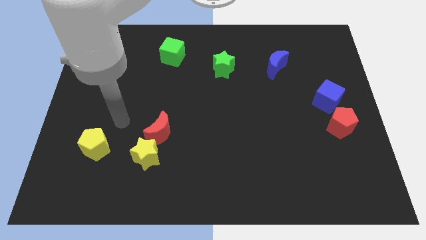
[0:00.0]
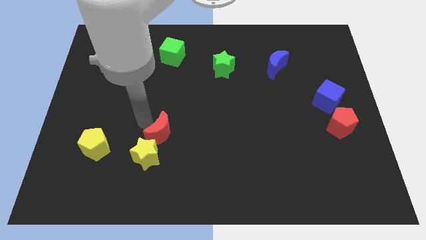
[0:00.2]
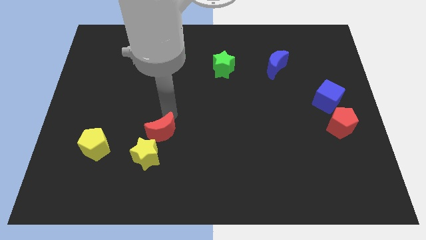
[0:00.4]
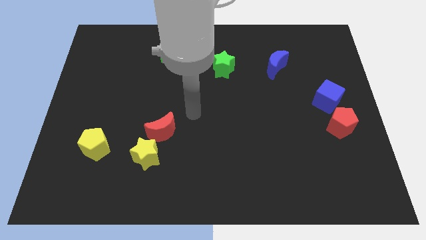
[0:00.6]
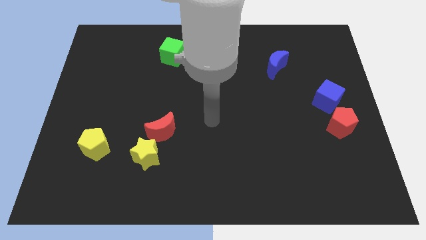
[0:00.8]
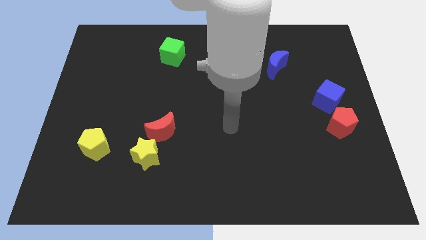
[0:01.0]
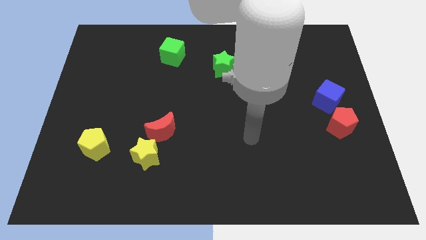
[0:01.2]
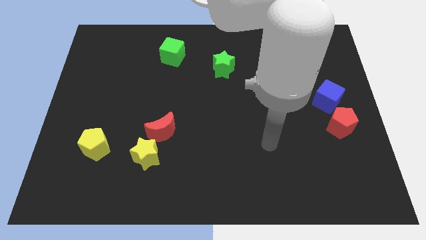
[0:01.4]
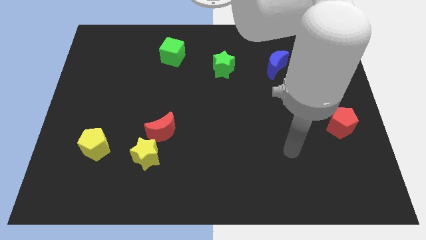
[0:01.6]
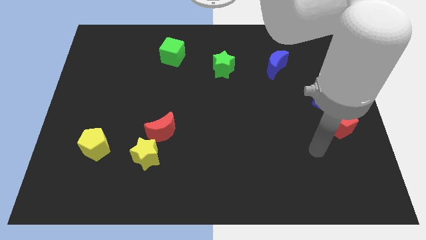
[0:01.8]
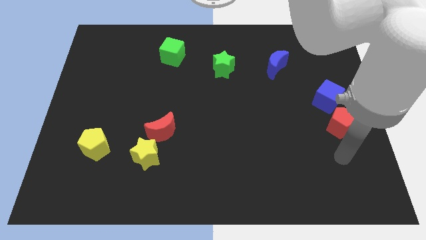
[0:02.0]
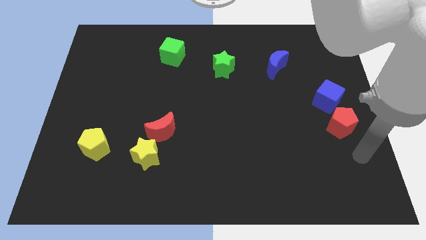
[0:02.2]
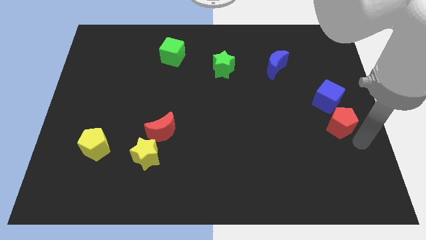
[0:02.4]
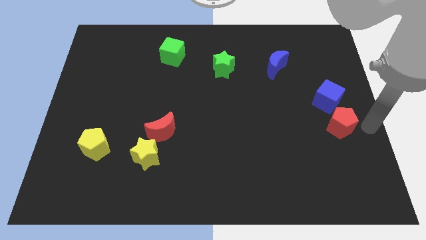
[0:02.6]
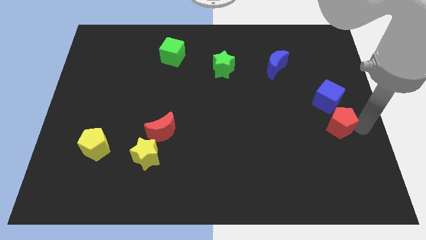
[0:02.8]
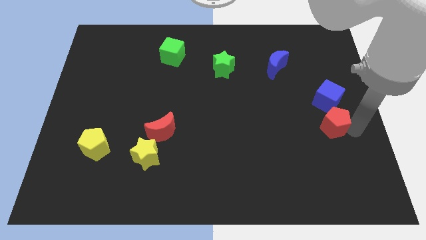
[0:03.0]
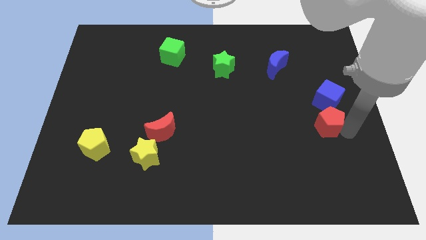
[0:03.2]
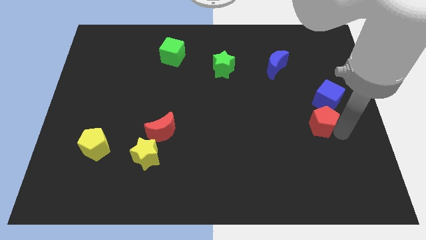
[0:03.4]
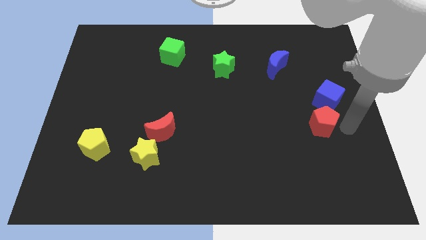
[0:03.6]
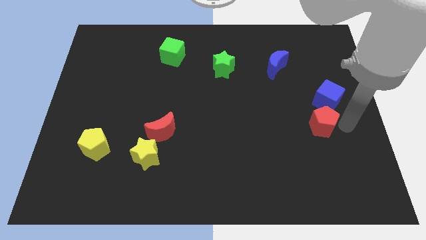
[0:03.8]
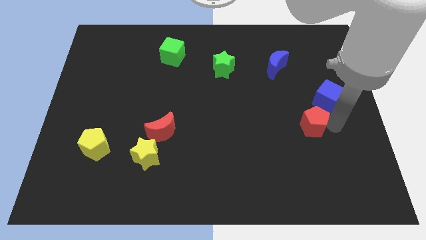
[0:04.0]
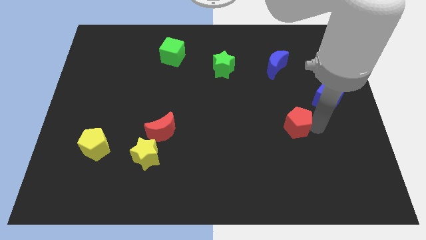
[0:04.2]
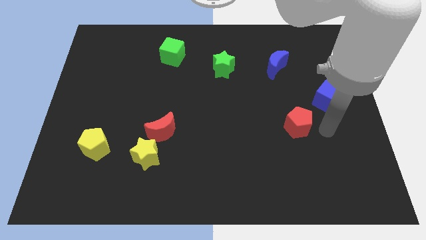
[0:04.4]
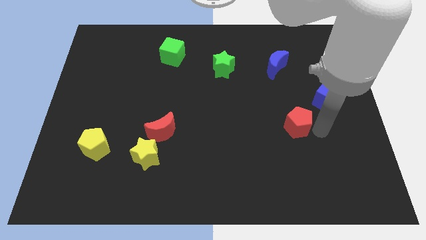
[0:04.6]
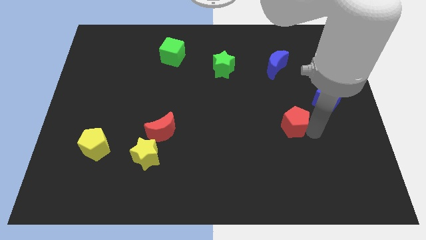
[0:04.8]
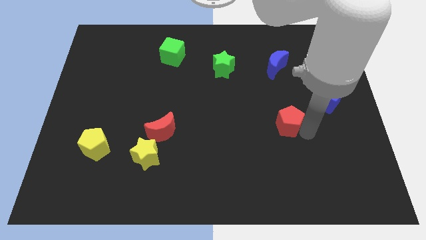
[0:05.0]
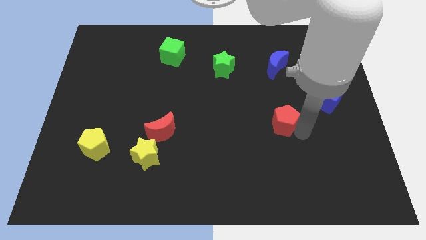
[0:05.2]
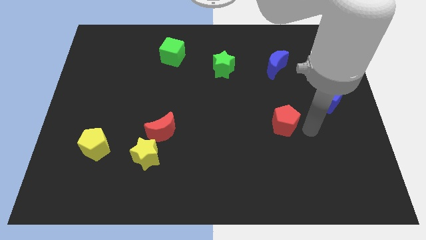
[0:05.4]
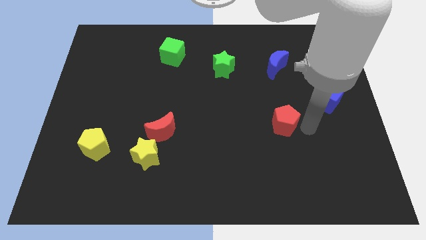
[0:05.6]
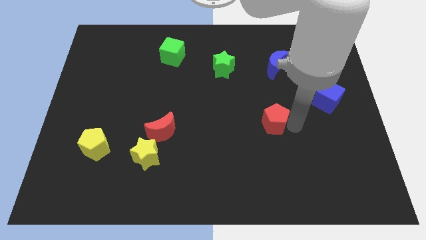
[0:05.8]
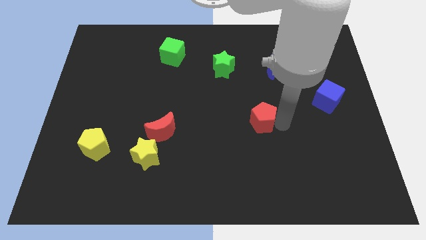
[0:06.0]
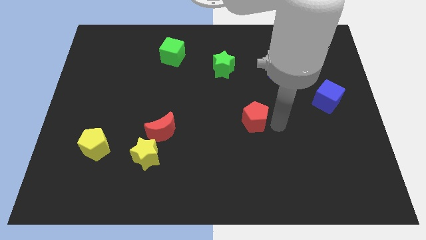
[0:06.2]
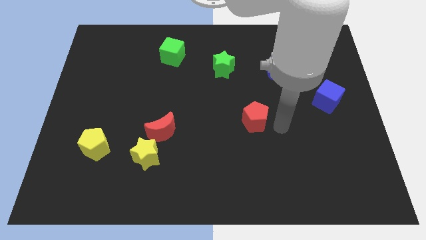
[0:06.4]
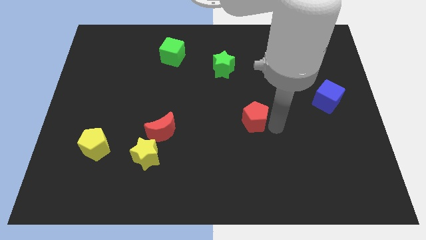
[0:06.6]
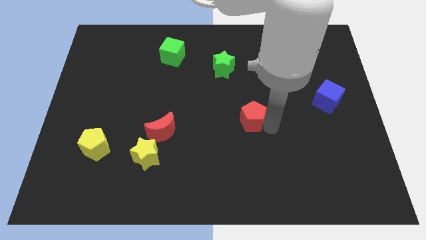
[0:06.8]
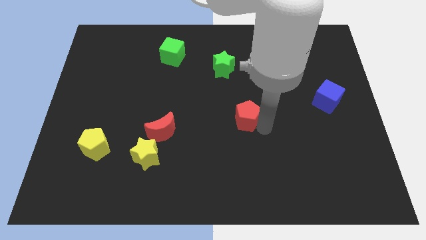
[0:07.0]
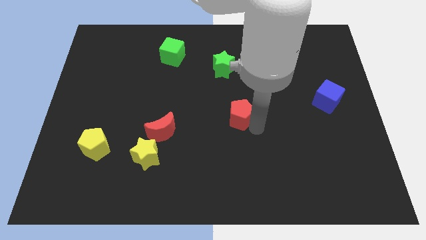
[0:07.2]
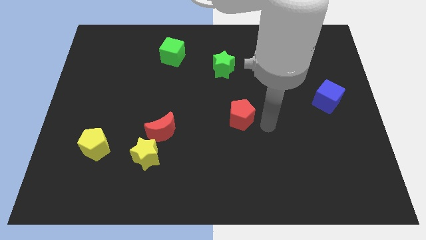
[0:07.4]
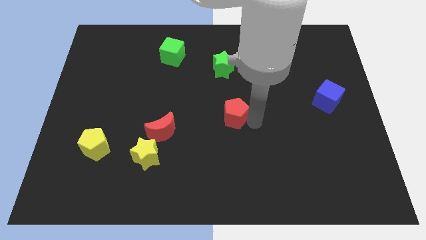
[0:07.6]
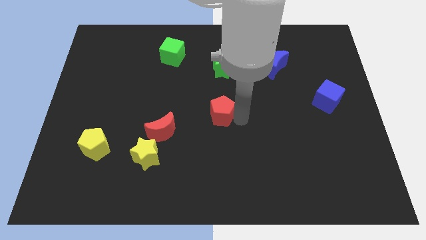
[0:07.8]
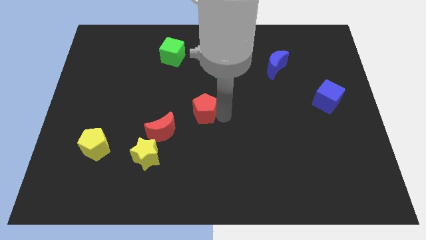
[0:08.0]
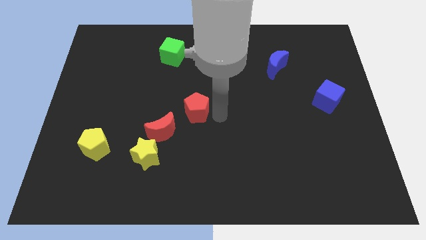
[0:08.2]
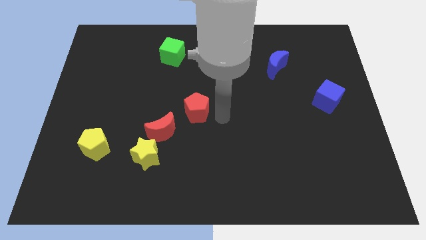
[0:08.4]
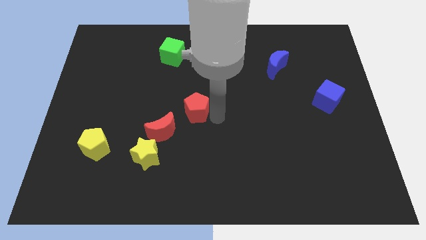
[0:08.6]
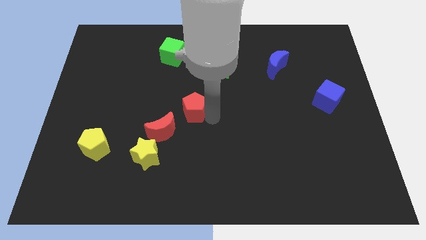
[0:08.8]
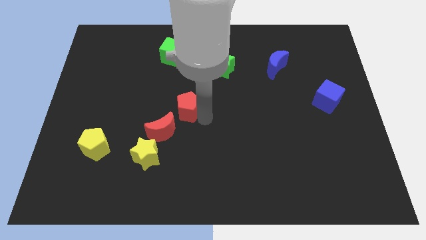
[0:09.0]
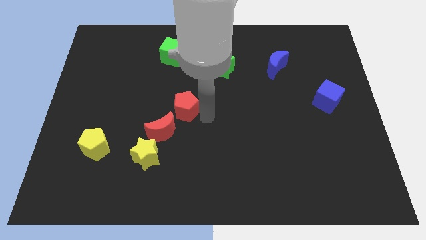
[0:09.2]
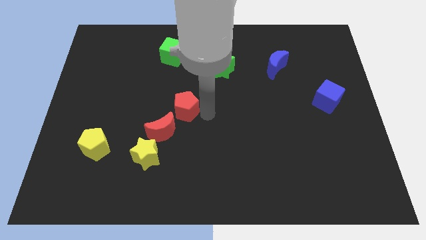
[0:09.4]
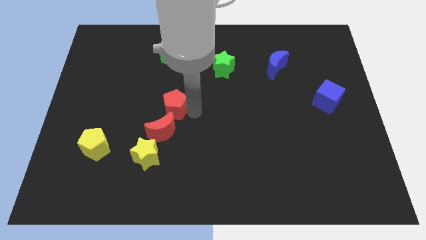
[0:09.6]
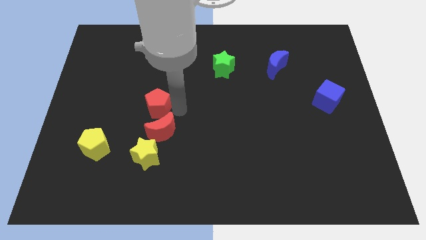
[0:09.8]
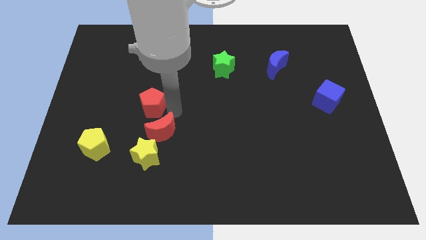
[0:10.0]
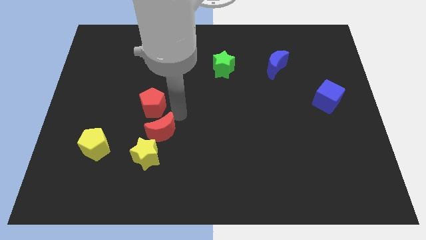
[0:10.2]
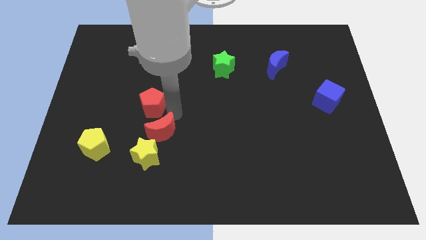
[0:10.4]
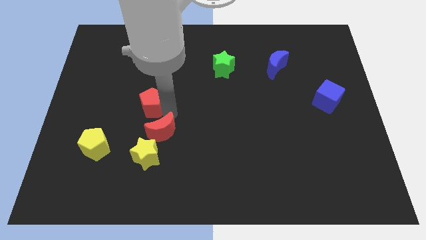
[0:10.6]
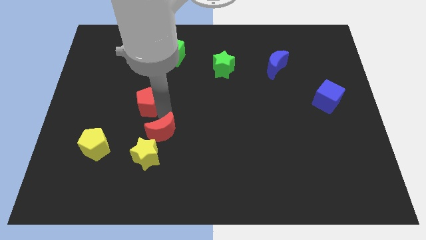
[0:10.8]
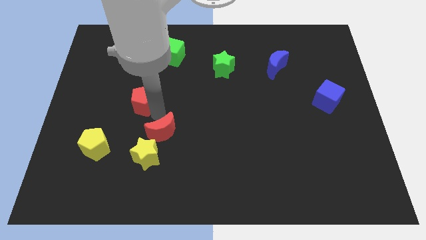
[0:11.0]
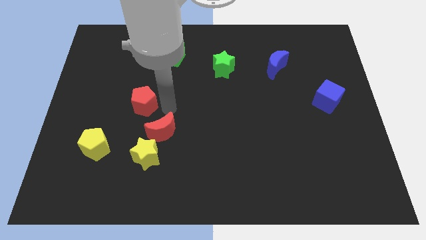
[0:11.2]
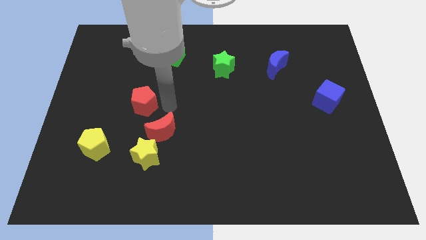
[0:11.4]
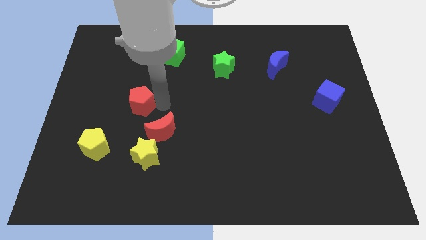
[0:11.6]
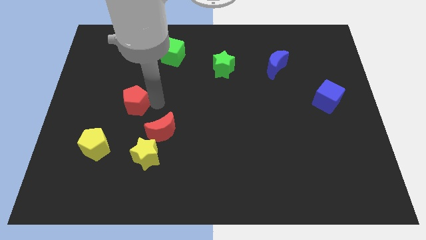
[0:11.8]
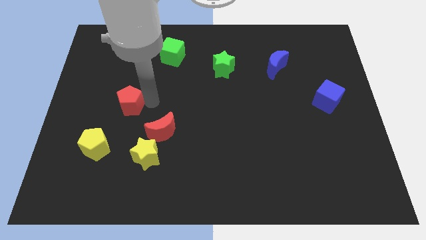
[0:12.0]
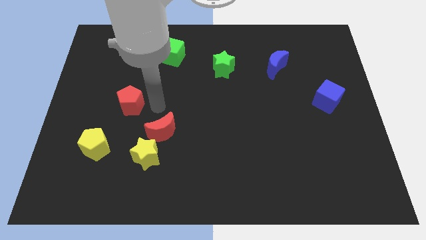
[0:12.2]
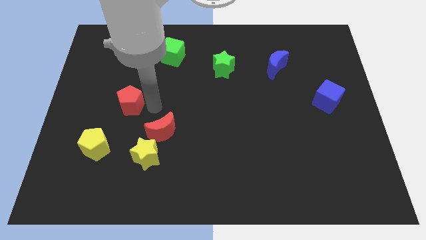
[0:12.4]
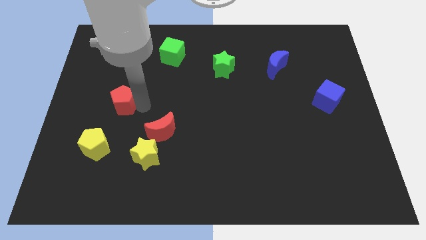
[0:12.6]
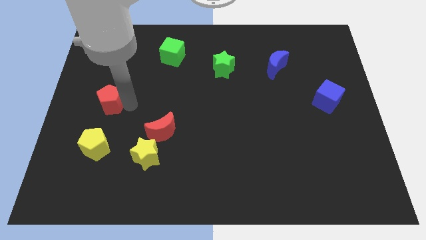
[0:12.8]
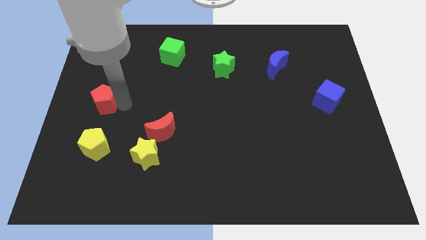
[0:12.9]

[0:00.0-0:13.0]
put the red pentagon to the left side of the board

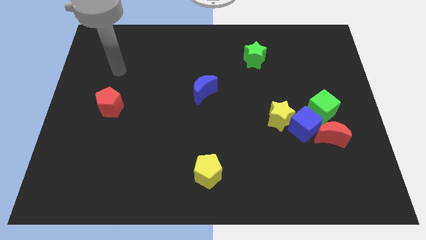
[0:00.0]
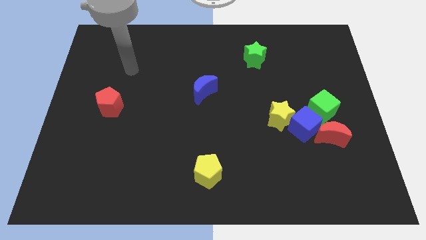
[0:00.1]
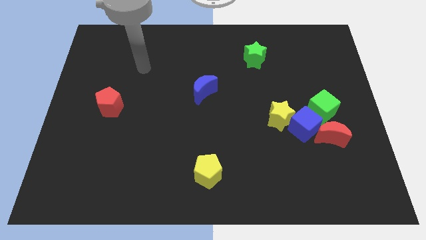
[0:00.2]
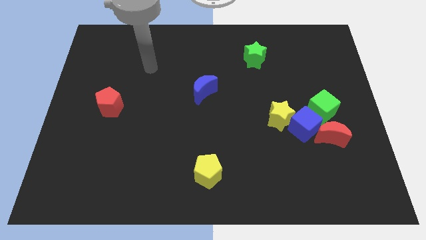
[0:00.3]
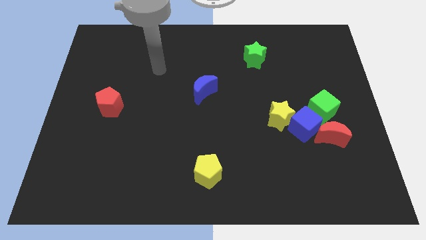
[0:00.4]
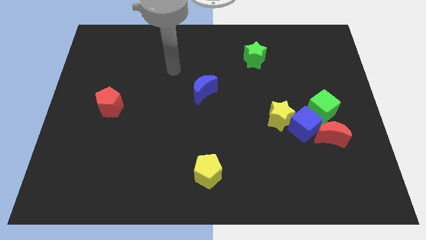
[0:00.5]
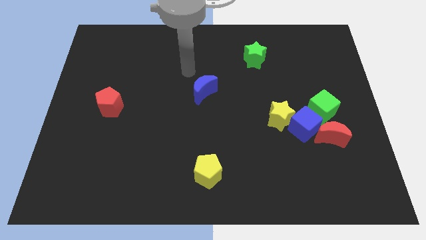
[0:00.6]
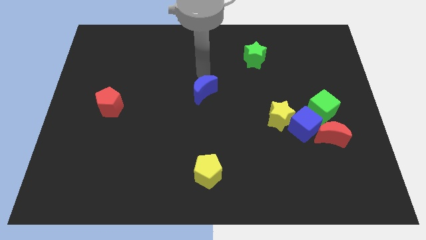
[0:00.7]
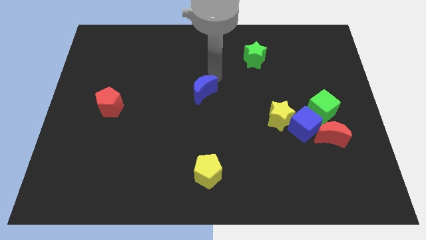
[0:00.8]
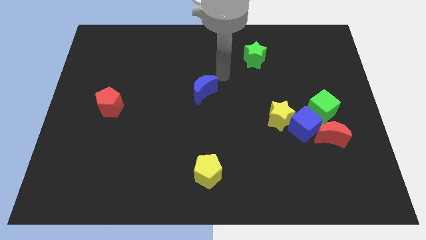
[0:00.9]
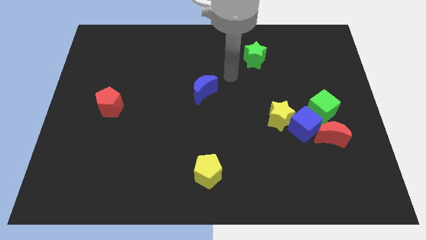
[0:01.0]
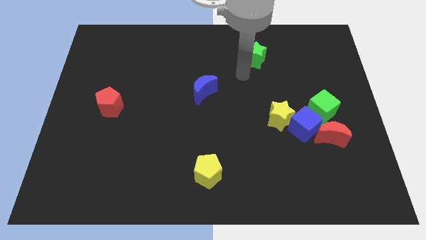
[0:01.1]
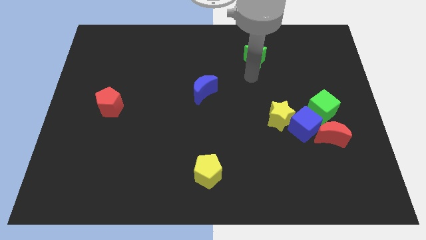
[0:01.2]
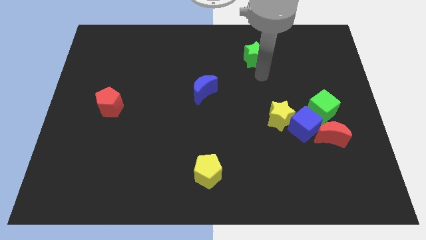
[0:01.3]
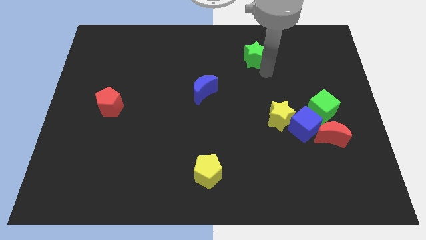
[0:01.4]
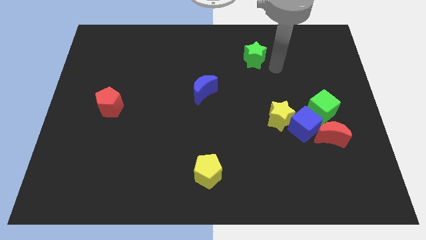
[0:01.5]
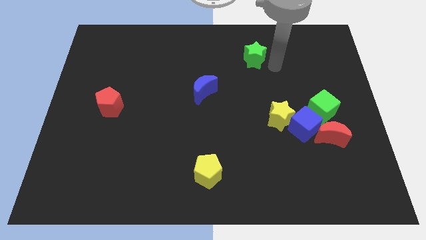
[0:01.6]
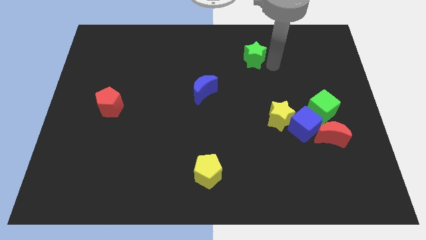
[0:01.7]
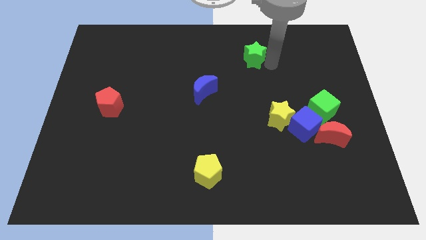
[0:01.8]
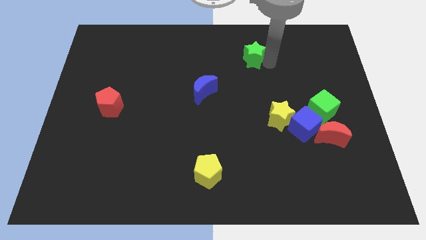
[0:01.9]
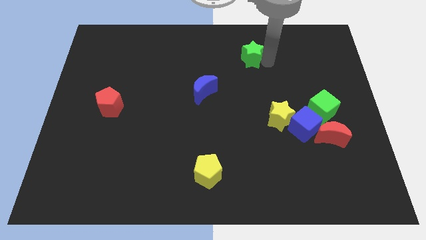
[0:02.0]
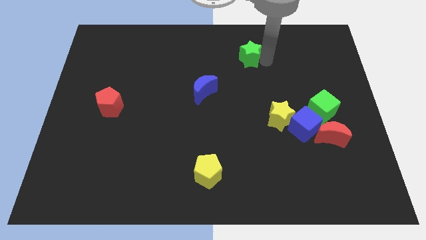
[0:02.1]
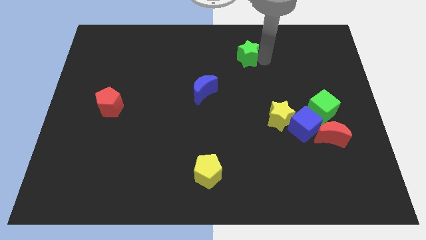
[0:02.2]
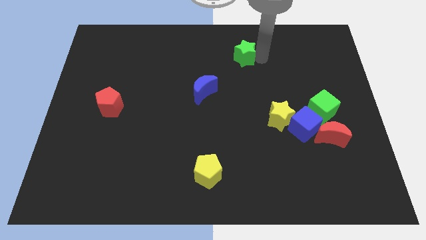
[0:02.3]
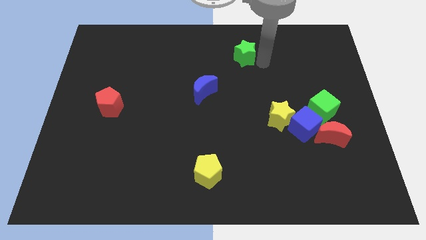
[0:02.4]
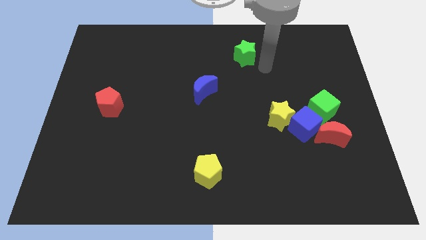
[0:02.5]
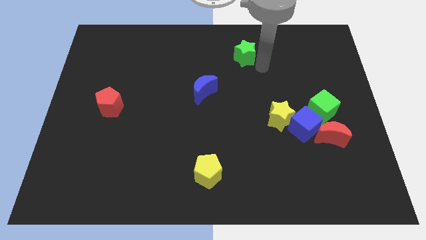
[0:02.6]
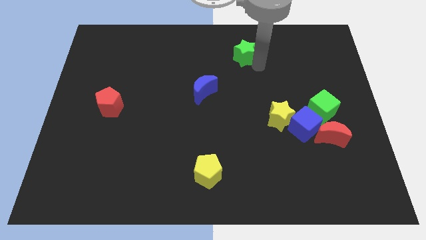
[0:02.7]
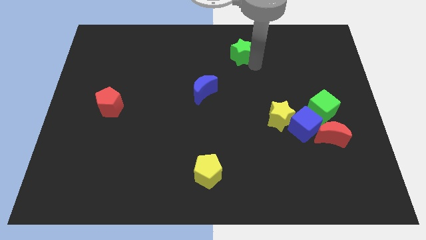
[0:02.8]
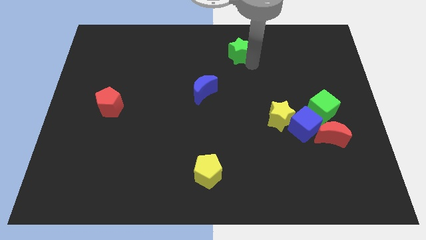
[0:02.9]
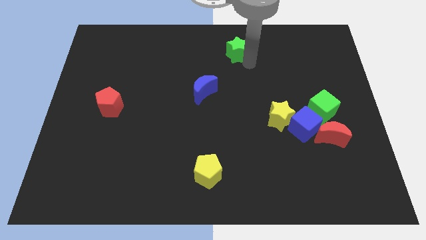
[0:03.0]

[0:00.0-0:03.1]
slide the green star to the top side
